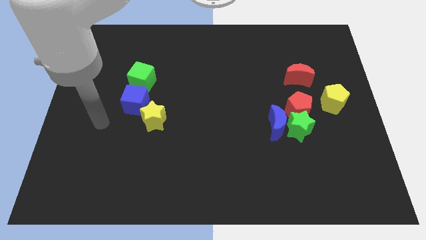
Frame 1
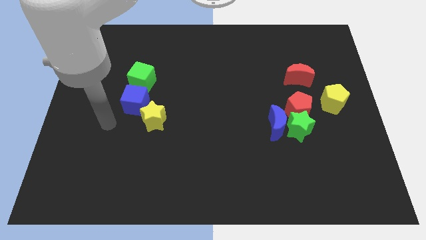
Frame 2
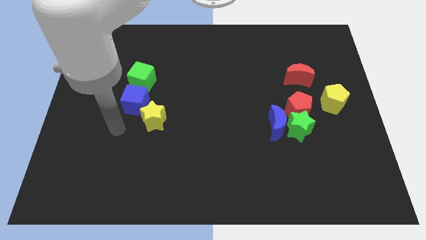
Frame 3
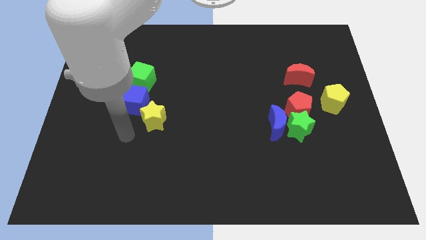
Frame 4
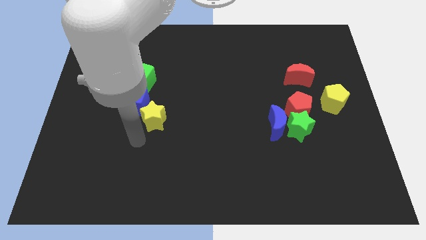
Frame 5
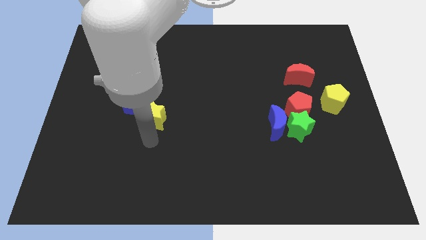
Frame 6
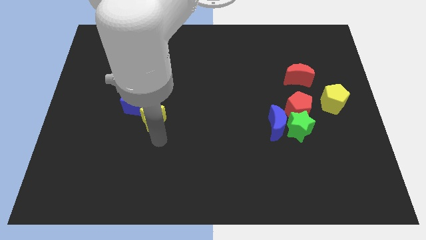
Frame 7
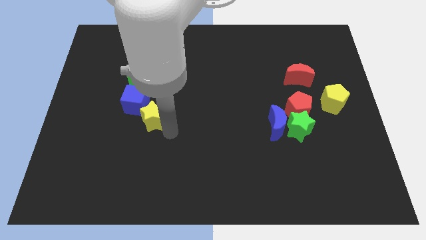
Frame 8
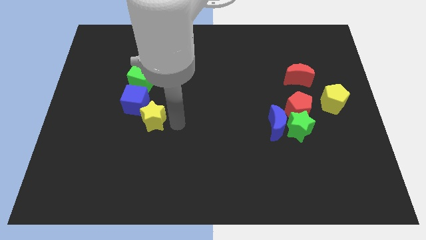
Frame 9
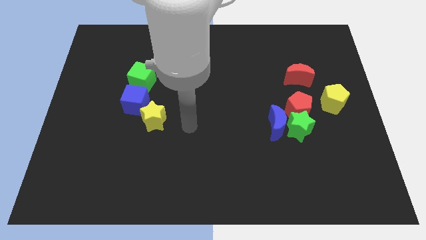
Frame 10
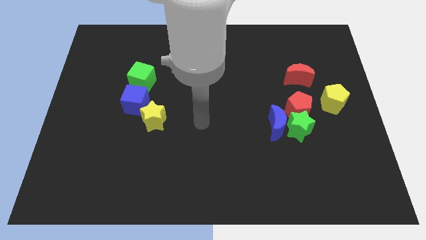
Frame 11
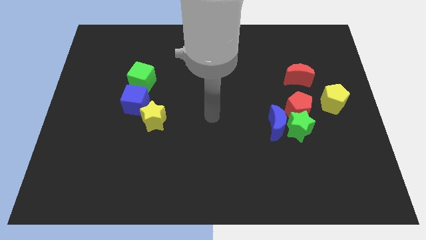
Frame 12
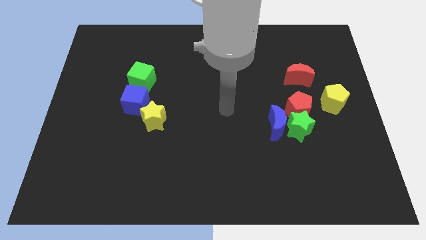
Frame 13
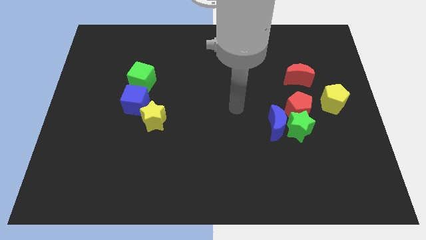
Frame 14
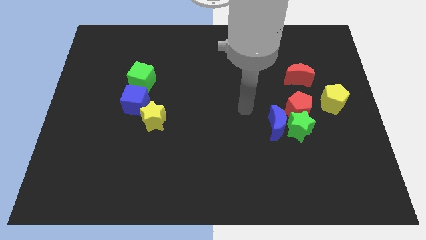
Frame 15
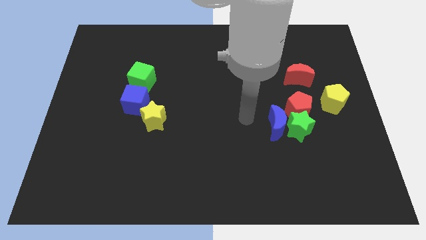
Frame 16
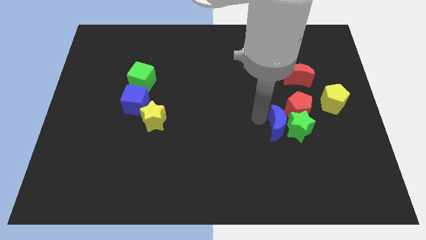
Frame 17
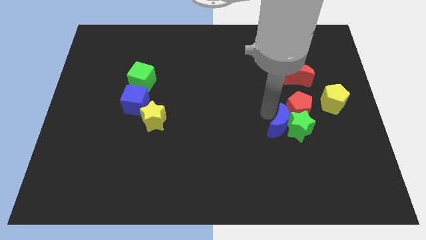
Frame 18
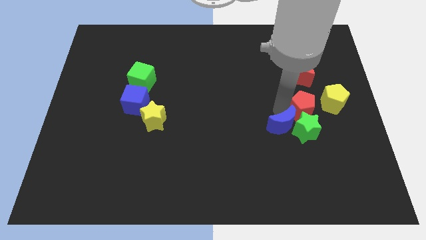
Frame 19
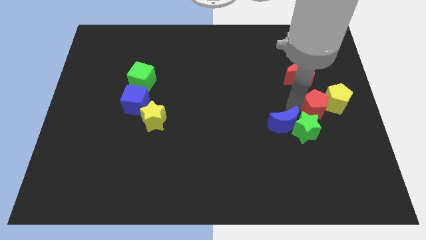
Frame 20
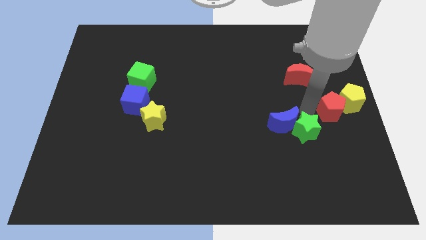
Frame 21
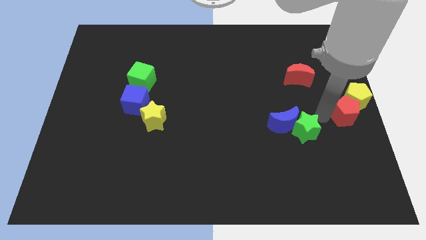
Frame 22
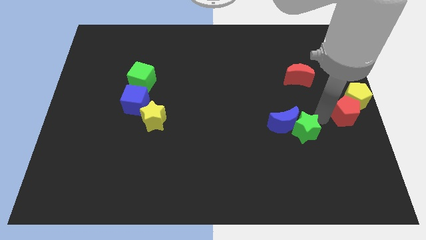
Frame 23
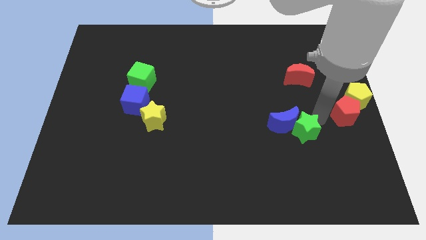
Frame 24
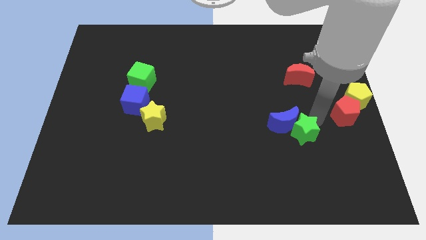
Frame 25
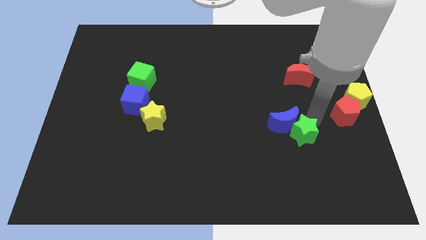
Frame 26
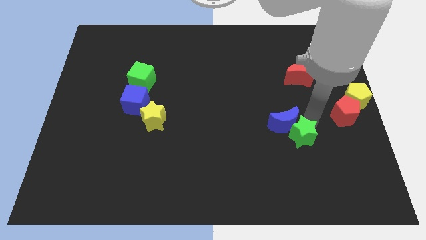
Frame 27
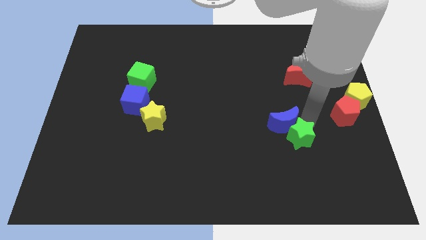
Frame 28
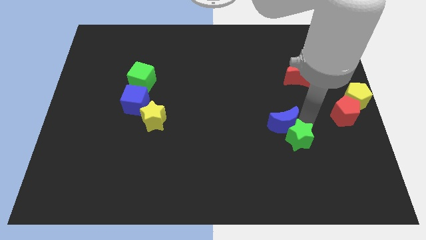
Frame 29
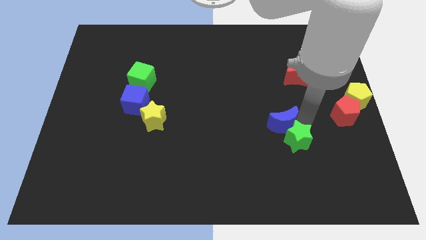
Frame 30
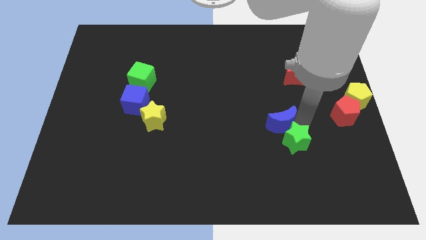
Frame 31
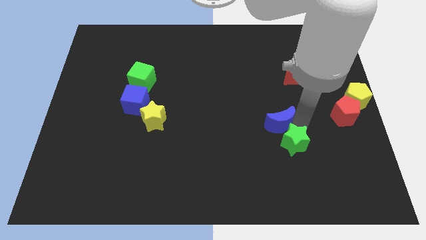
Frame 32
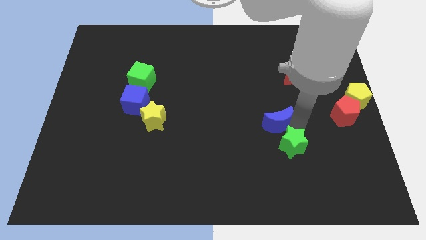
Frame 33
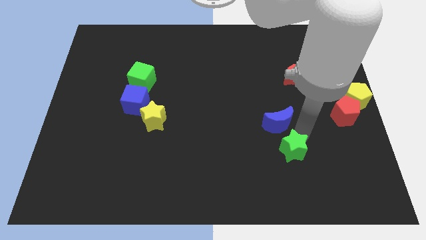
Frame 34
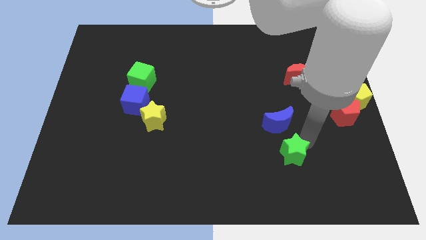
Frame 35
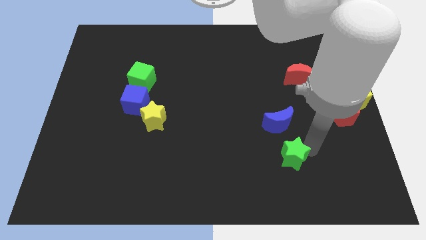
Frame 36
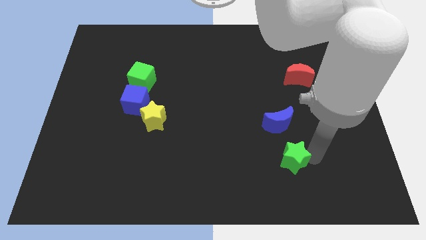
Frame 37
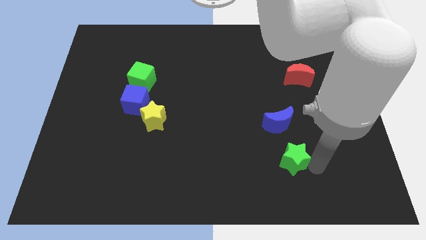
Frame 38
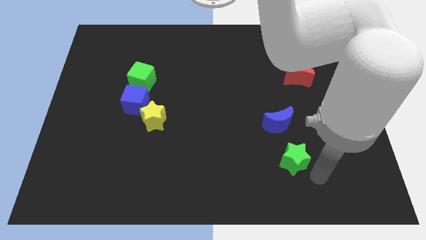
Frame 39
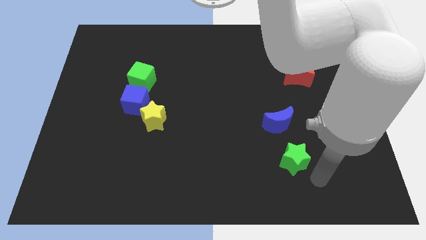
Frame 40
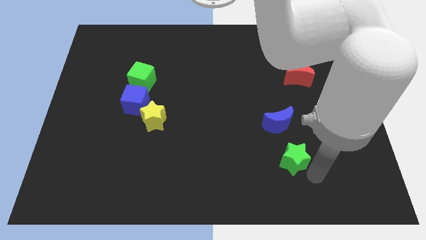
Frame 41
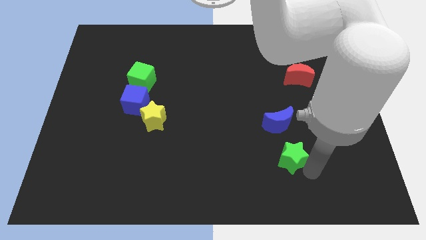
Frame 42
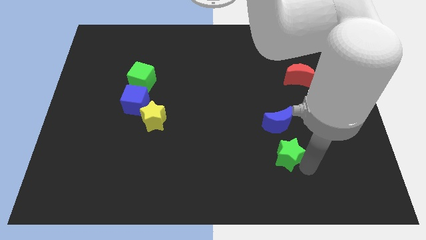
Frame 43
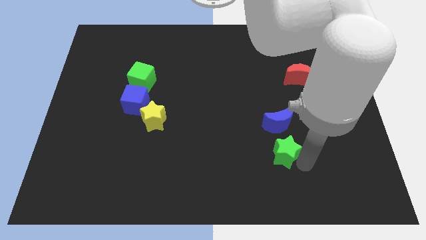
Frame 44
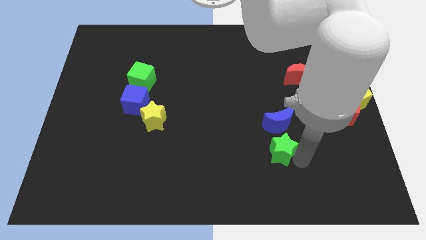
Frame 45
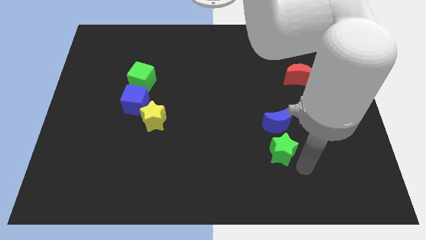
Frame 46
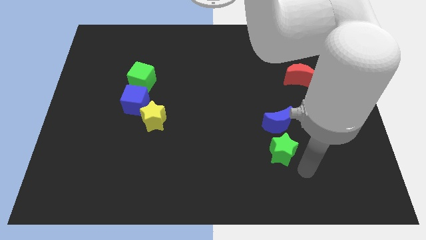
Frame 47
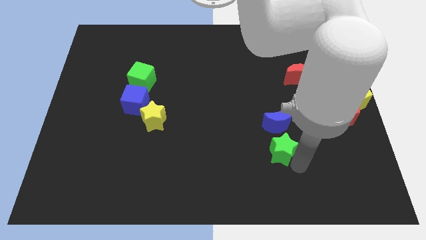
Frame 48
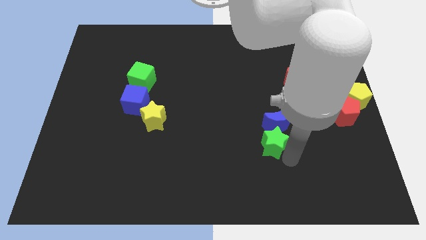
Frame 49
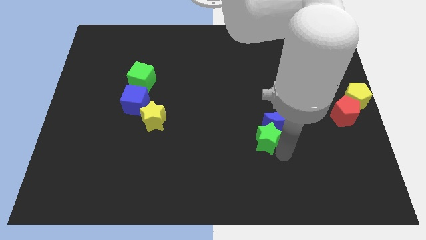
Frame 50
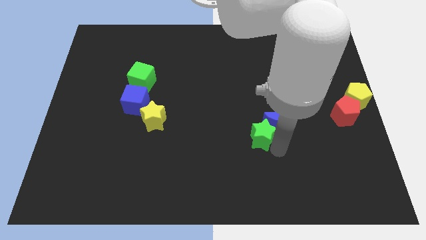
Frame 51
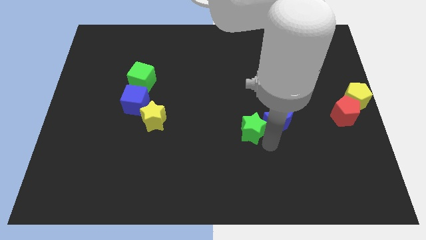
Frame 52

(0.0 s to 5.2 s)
push the green star to the middle

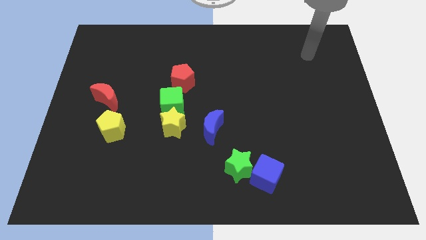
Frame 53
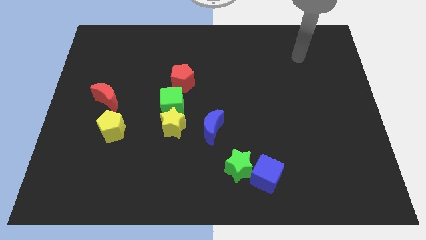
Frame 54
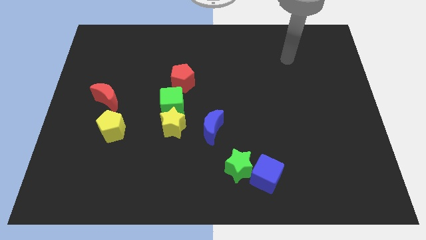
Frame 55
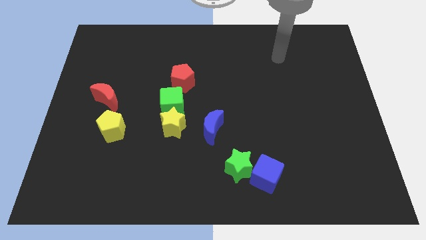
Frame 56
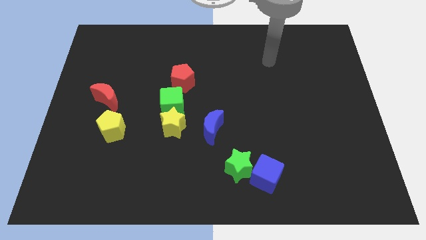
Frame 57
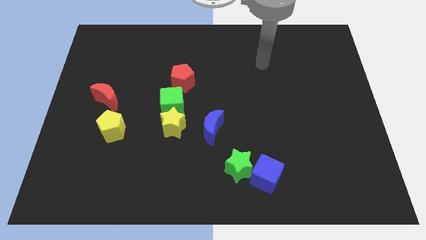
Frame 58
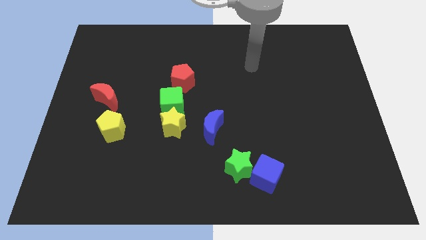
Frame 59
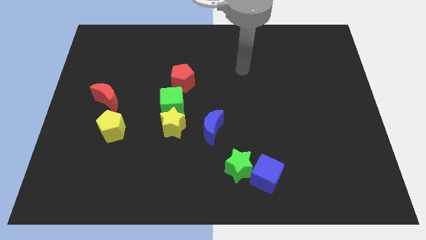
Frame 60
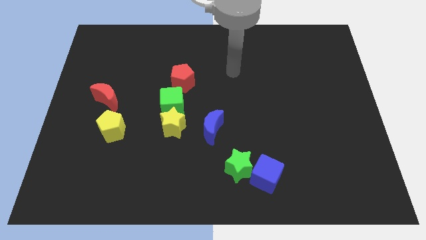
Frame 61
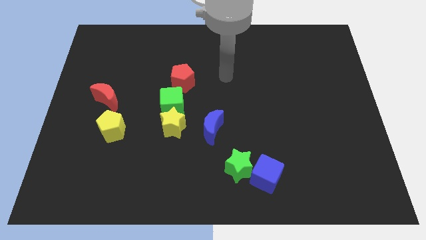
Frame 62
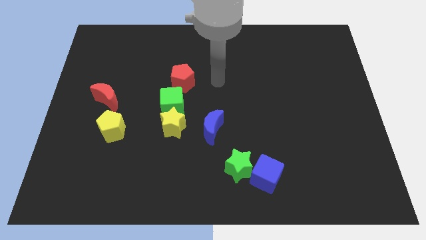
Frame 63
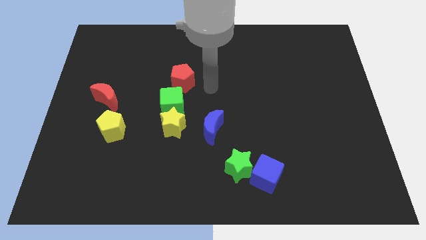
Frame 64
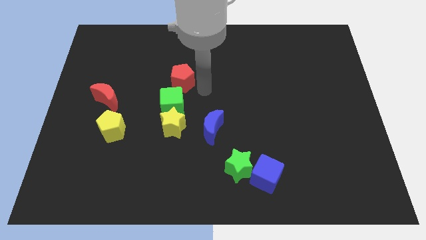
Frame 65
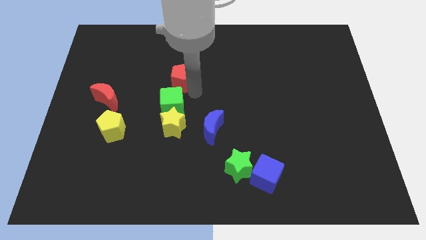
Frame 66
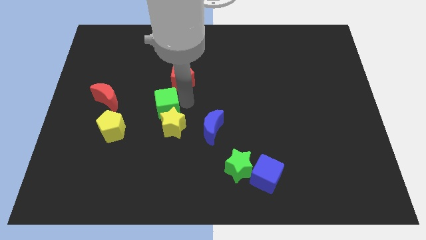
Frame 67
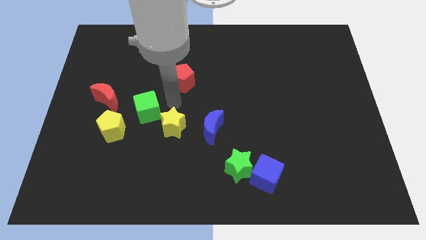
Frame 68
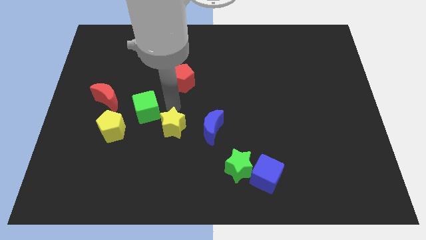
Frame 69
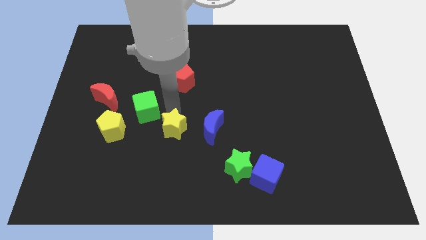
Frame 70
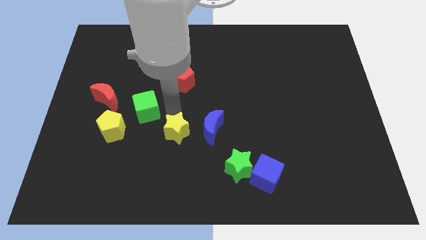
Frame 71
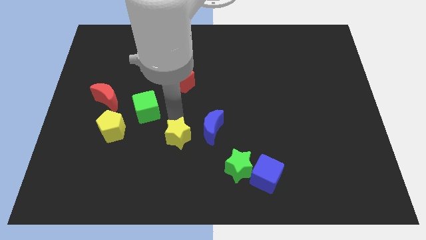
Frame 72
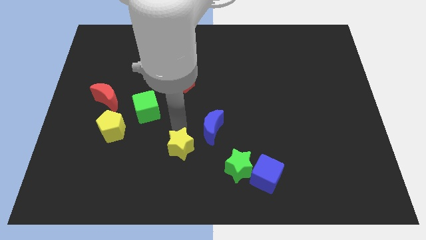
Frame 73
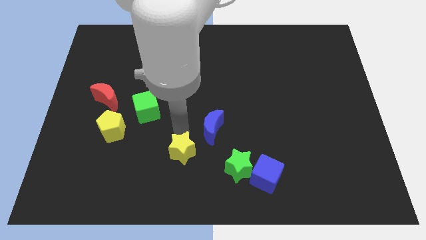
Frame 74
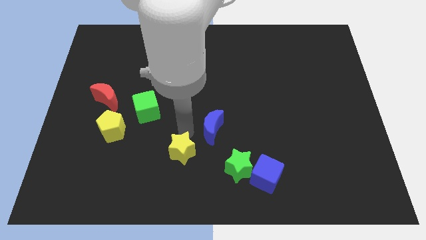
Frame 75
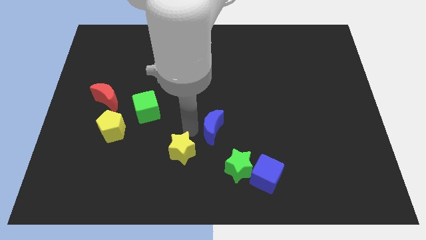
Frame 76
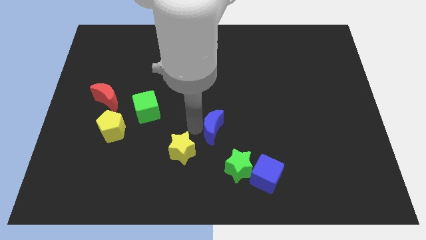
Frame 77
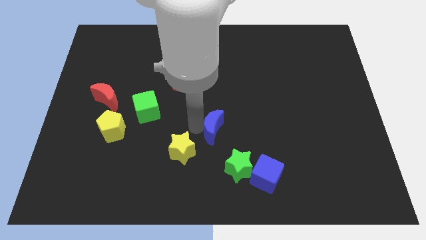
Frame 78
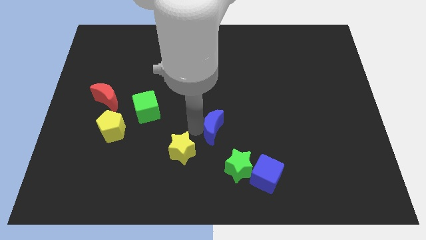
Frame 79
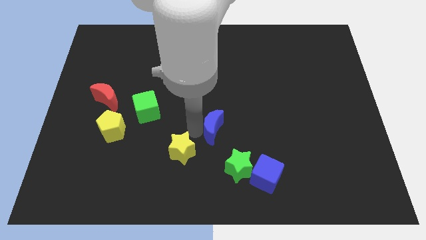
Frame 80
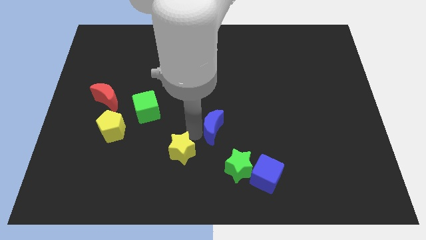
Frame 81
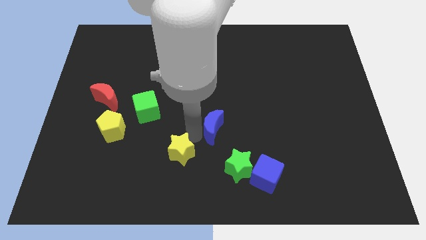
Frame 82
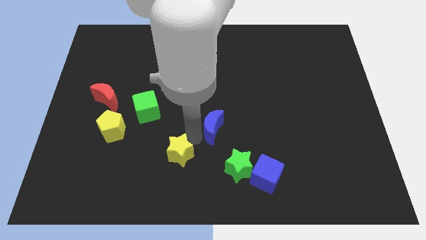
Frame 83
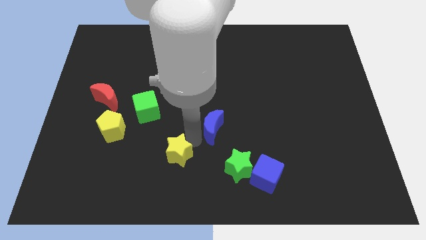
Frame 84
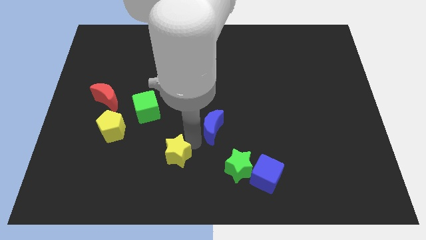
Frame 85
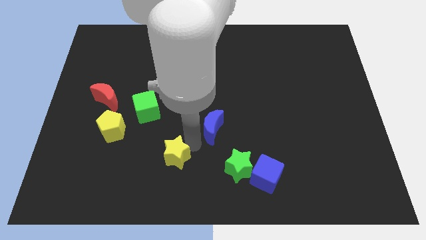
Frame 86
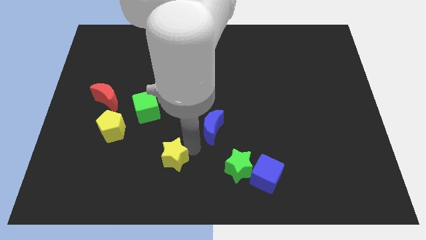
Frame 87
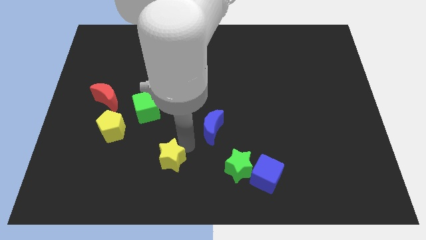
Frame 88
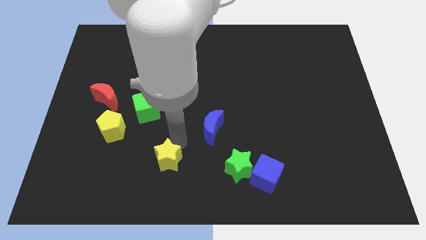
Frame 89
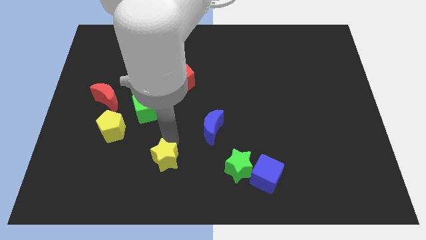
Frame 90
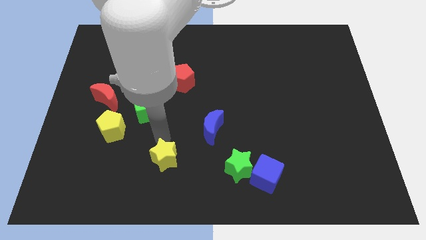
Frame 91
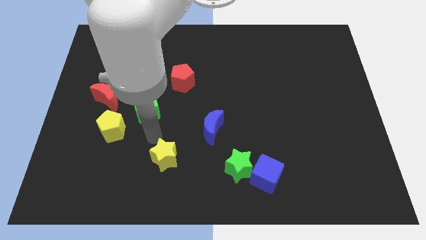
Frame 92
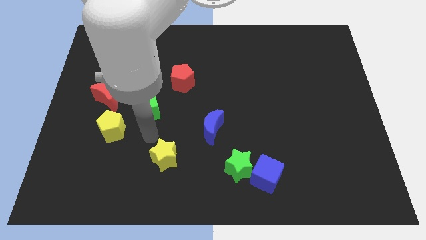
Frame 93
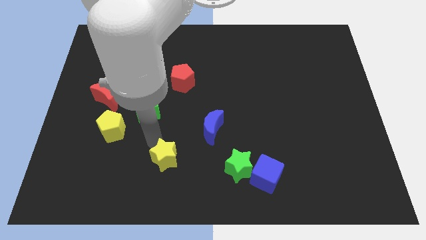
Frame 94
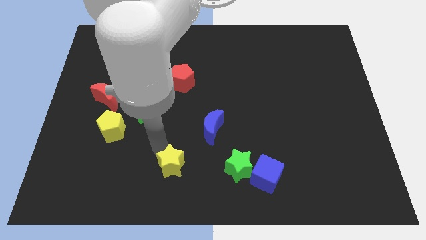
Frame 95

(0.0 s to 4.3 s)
slide the yellow star to the bottom
